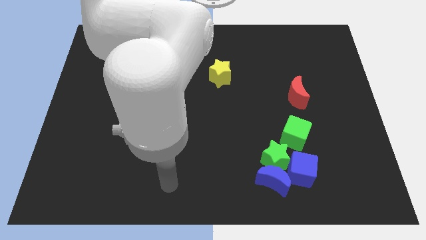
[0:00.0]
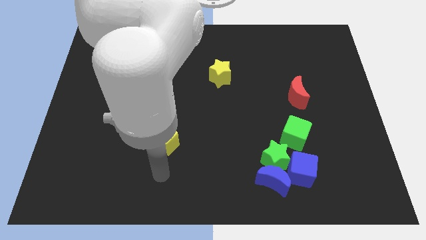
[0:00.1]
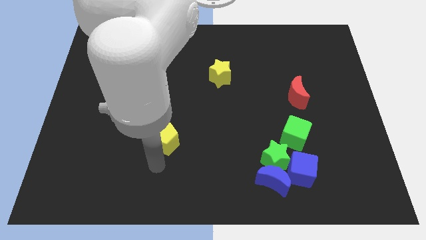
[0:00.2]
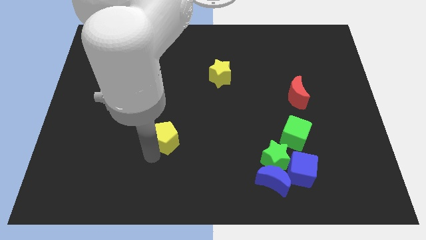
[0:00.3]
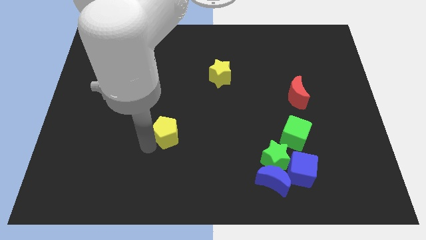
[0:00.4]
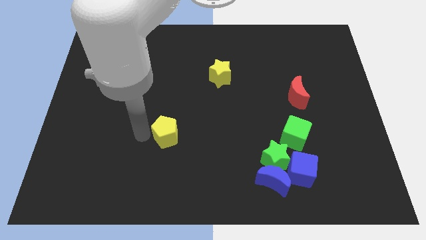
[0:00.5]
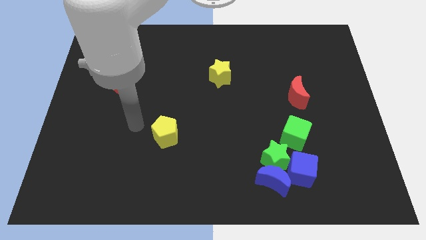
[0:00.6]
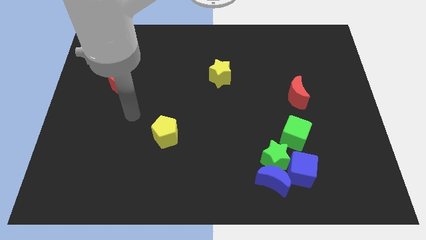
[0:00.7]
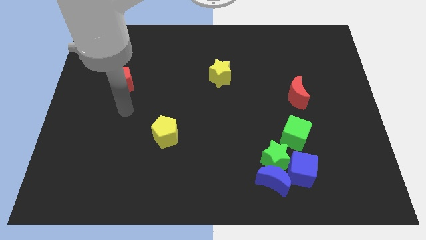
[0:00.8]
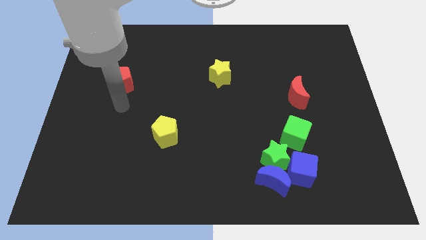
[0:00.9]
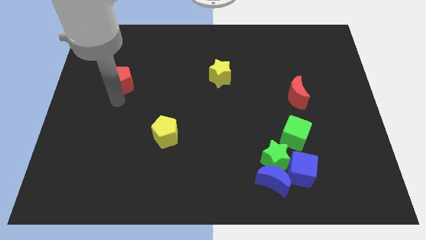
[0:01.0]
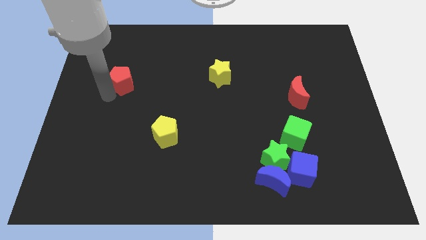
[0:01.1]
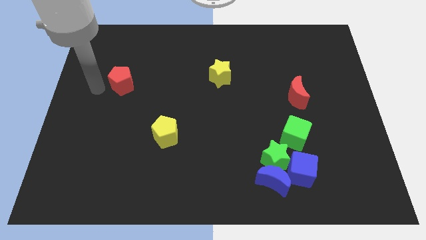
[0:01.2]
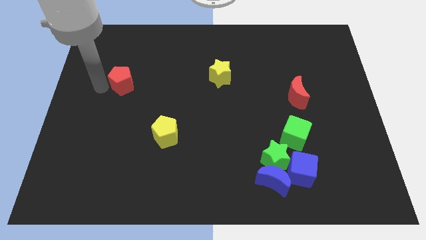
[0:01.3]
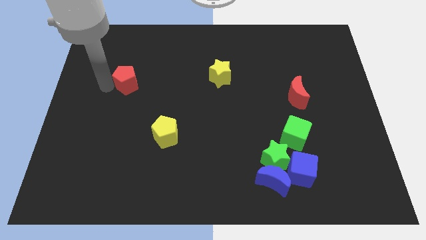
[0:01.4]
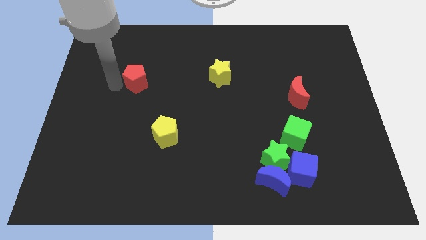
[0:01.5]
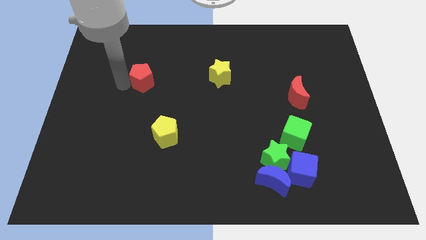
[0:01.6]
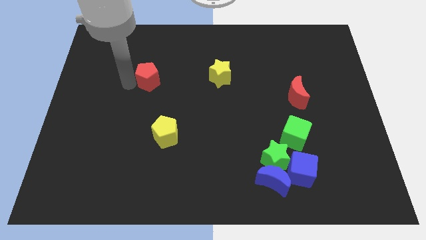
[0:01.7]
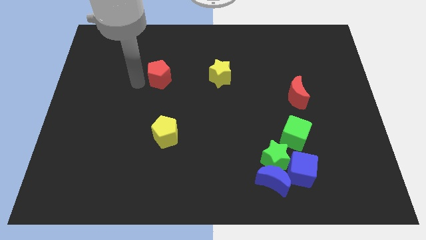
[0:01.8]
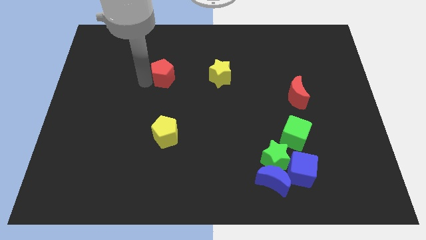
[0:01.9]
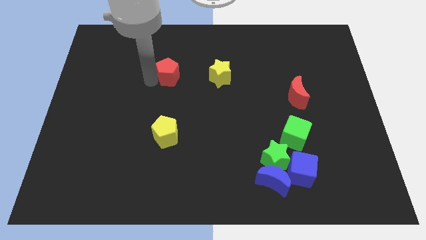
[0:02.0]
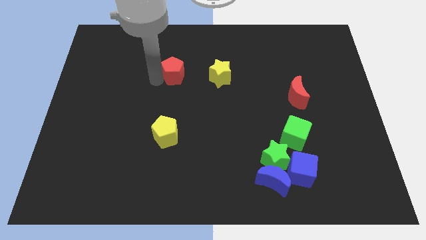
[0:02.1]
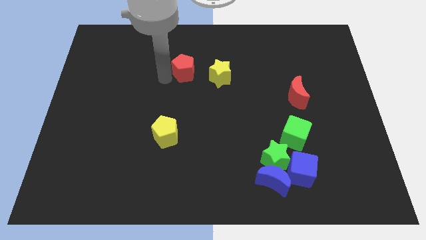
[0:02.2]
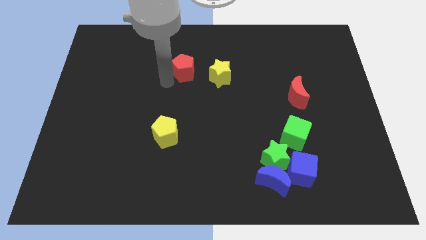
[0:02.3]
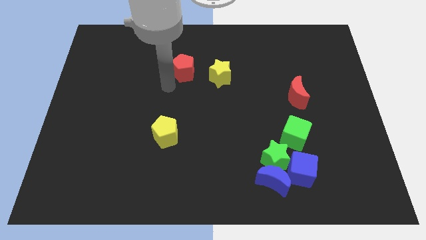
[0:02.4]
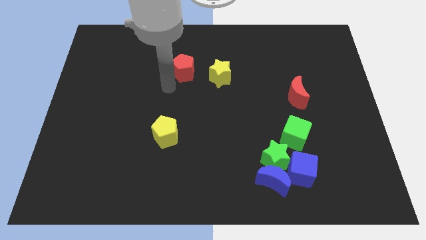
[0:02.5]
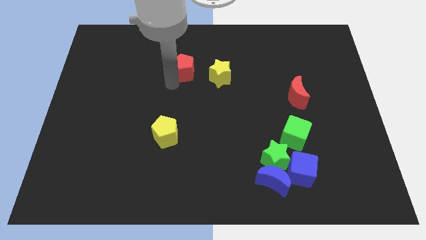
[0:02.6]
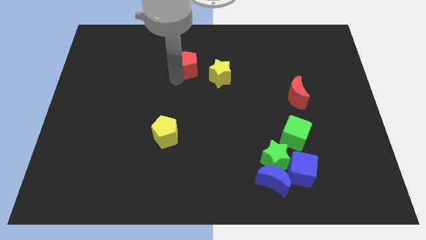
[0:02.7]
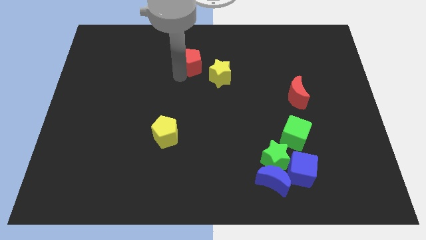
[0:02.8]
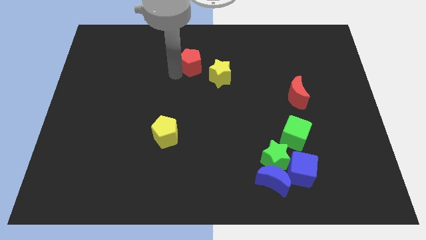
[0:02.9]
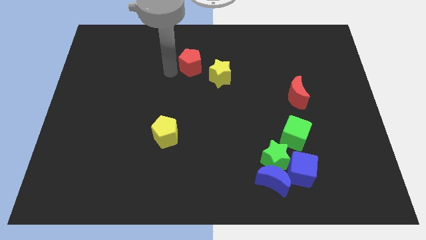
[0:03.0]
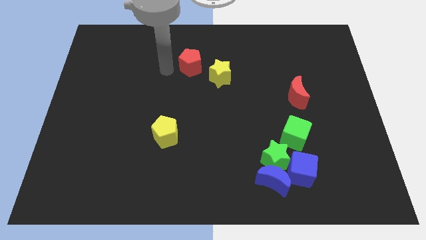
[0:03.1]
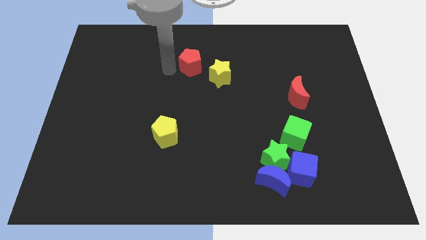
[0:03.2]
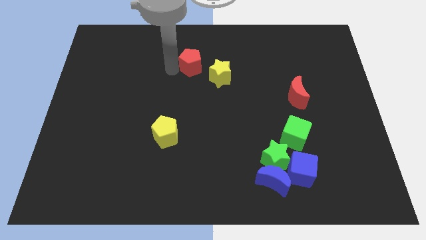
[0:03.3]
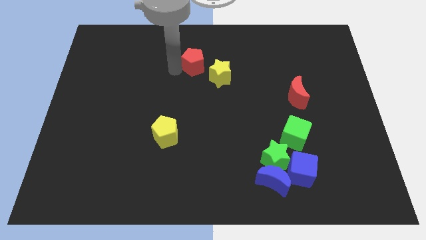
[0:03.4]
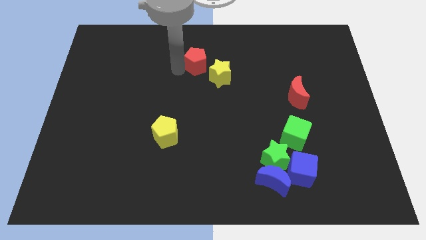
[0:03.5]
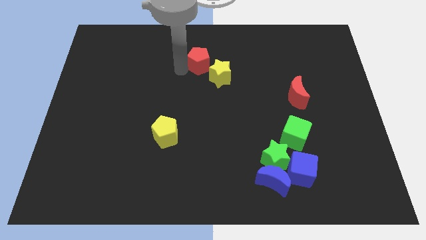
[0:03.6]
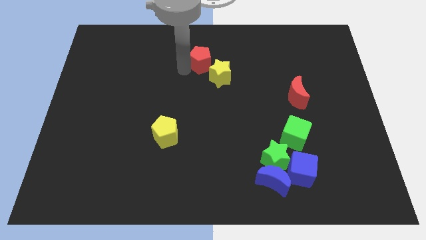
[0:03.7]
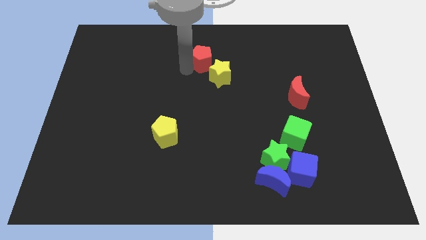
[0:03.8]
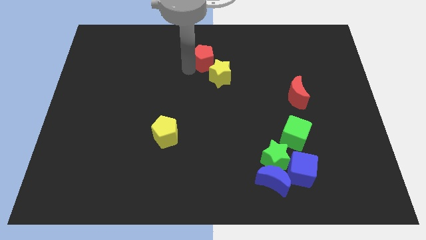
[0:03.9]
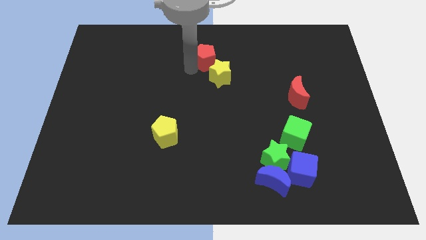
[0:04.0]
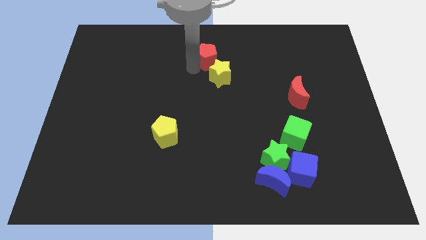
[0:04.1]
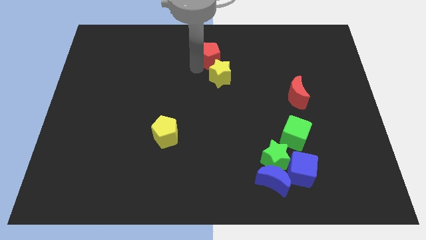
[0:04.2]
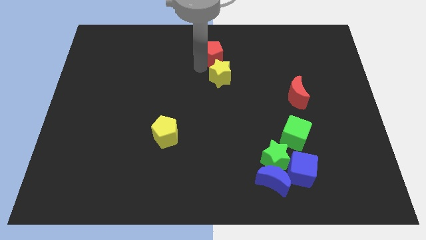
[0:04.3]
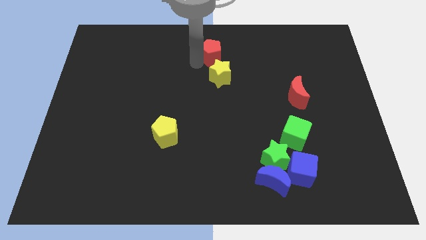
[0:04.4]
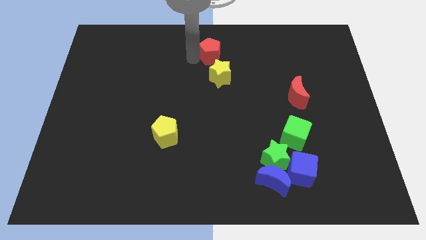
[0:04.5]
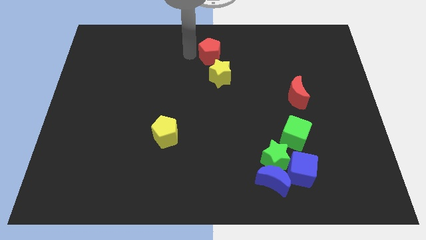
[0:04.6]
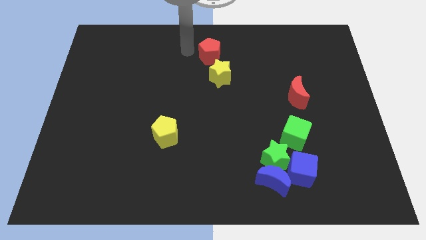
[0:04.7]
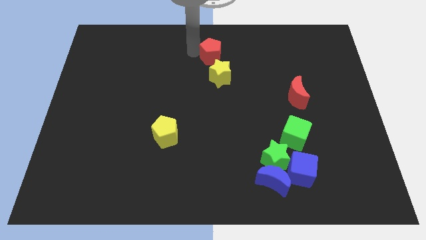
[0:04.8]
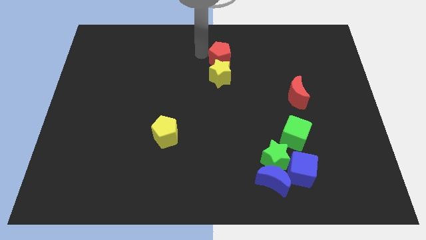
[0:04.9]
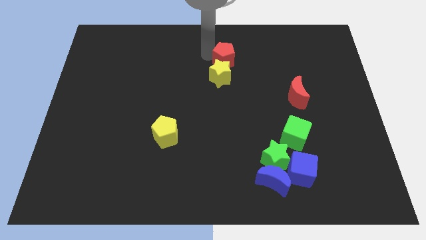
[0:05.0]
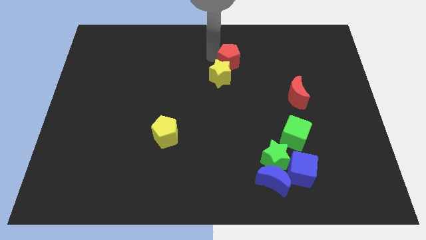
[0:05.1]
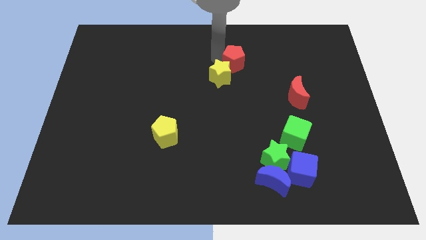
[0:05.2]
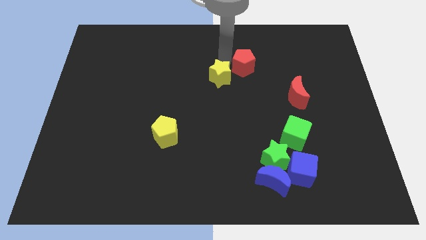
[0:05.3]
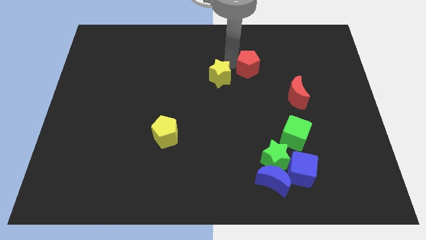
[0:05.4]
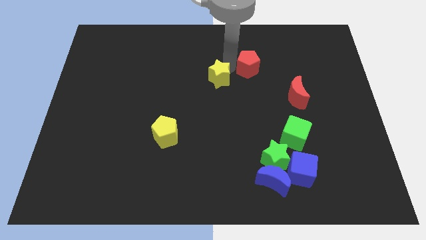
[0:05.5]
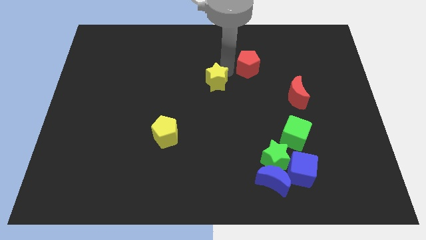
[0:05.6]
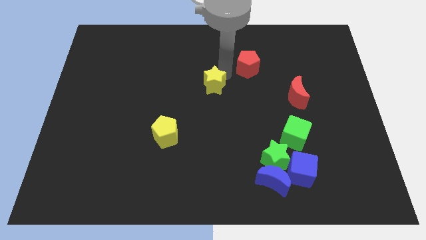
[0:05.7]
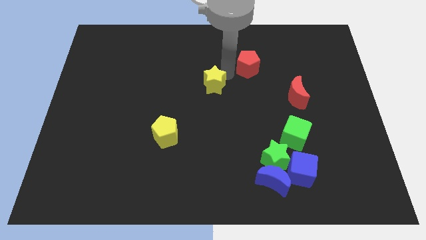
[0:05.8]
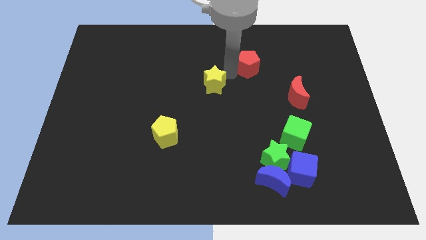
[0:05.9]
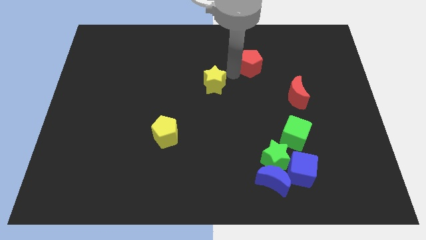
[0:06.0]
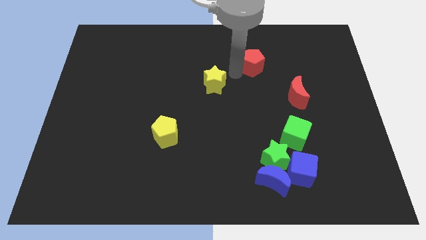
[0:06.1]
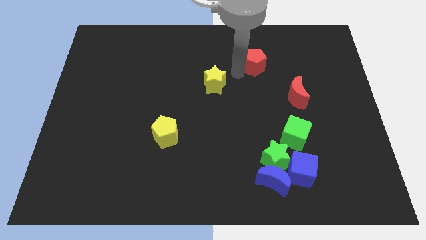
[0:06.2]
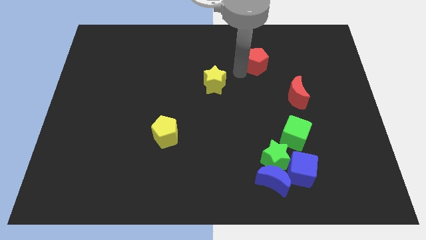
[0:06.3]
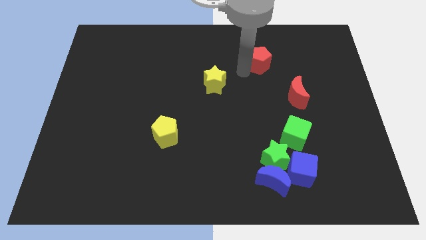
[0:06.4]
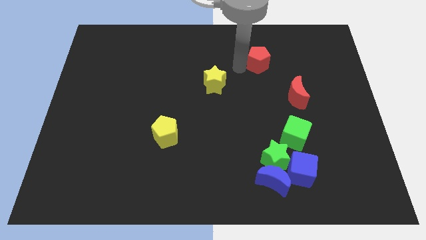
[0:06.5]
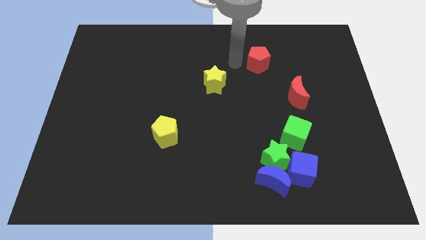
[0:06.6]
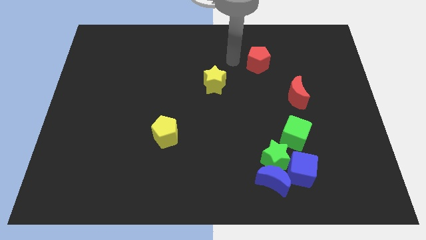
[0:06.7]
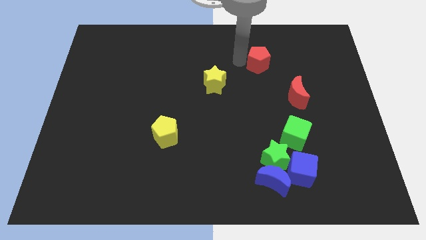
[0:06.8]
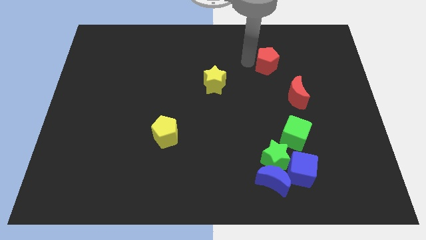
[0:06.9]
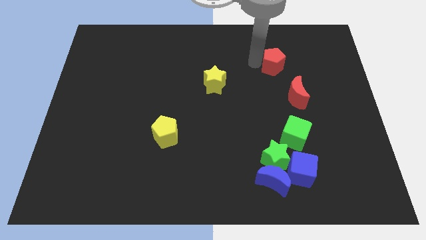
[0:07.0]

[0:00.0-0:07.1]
push the red pentagon above the red moon
